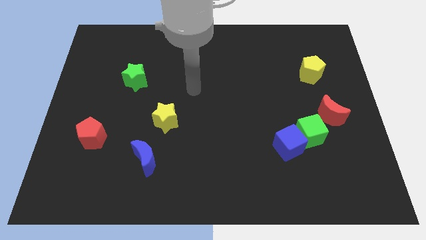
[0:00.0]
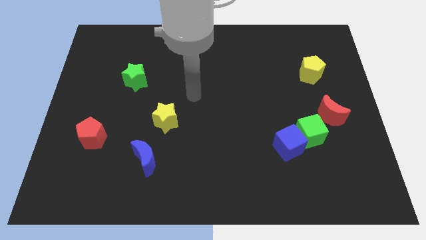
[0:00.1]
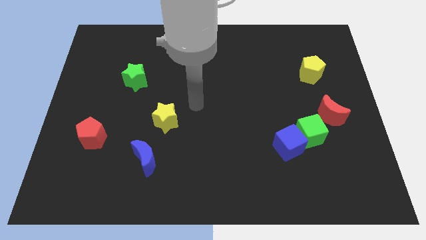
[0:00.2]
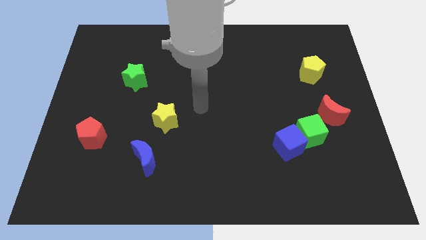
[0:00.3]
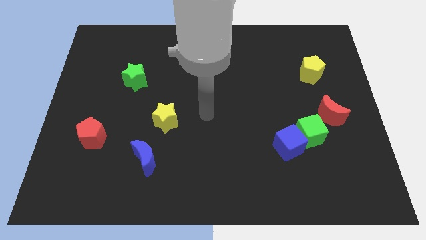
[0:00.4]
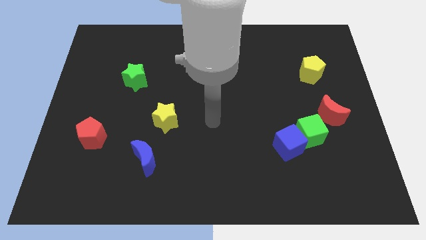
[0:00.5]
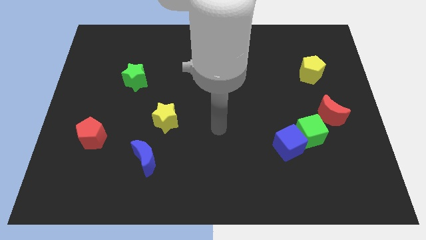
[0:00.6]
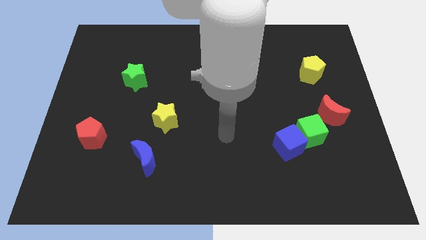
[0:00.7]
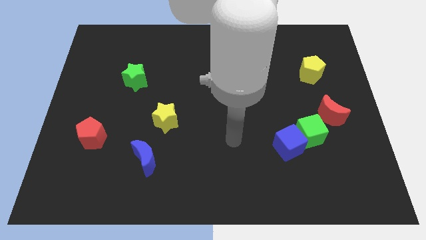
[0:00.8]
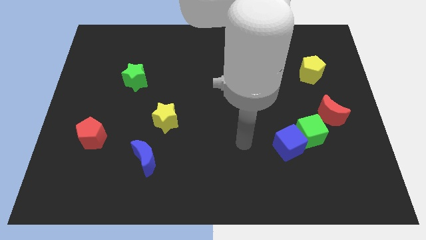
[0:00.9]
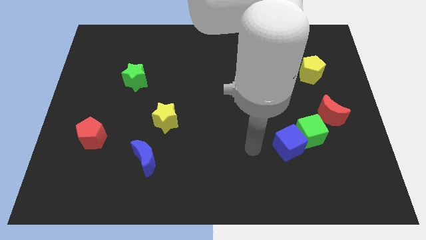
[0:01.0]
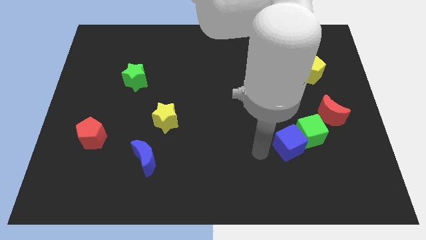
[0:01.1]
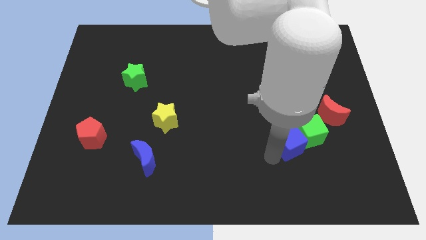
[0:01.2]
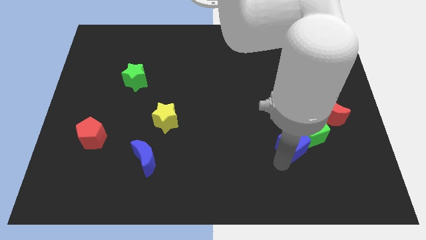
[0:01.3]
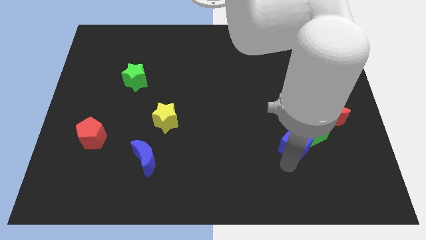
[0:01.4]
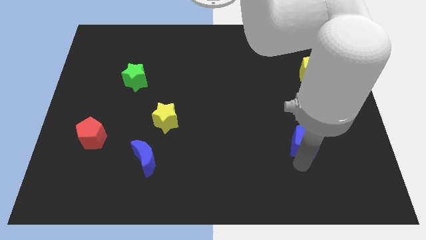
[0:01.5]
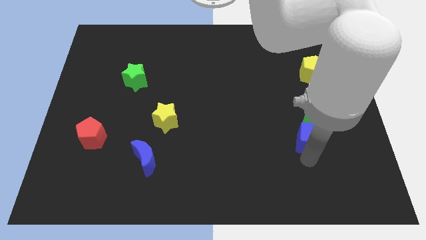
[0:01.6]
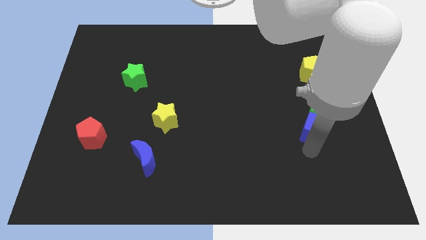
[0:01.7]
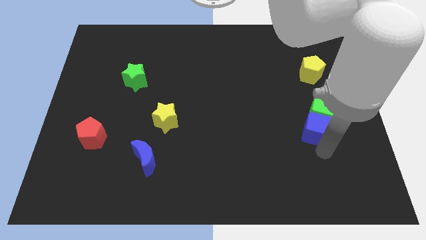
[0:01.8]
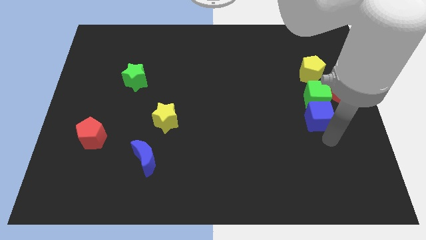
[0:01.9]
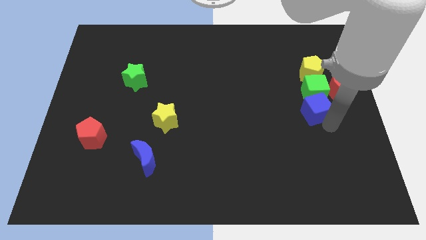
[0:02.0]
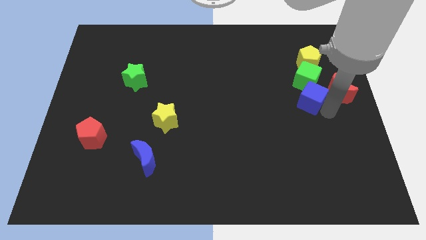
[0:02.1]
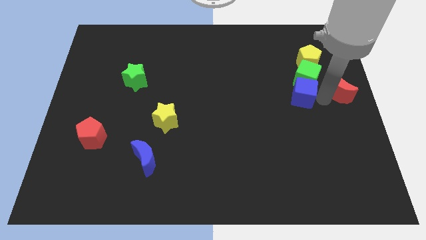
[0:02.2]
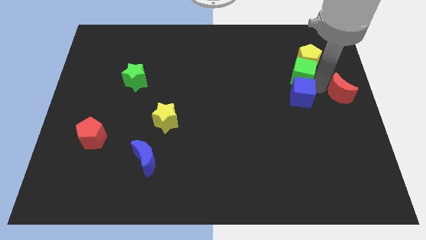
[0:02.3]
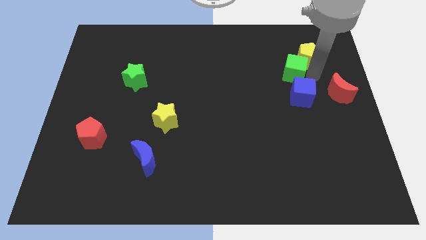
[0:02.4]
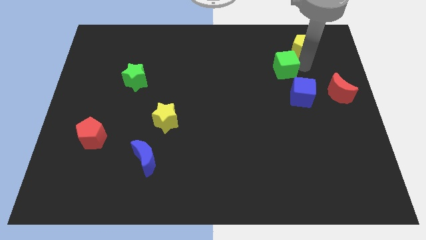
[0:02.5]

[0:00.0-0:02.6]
slightly slide the green cube diagonally up and left

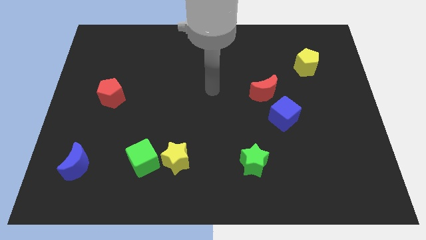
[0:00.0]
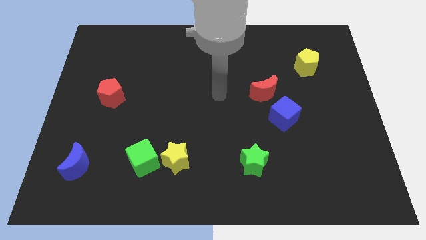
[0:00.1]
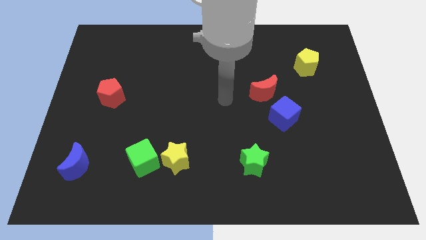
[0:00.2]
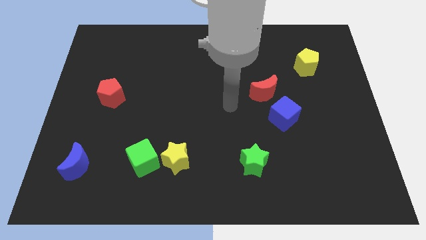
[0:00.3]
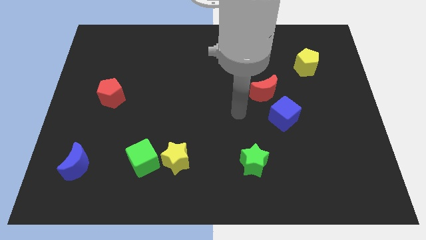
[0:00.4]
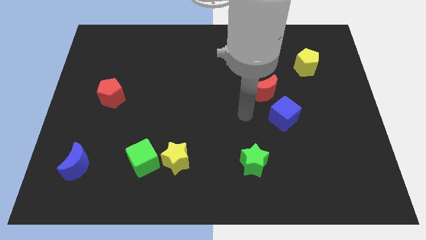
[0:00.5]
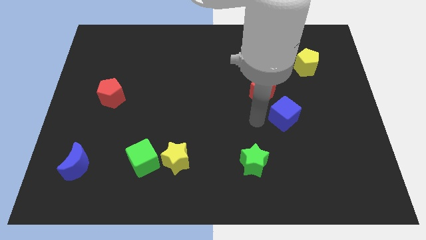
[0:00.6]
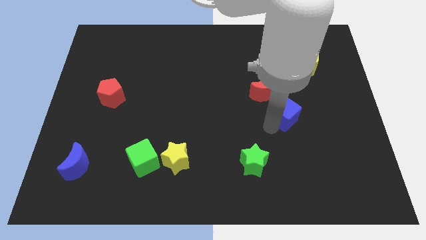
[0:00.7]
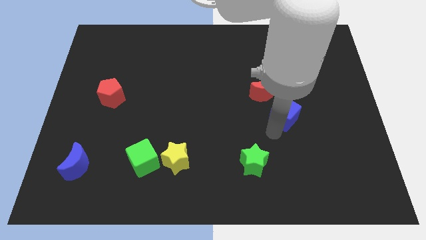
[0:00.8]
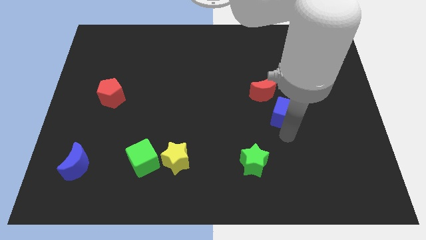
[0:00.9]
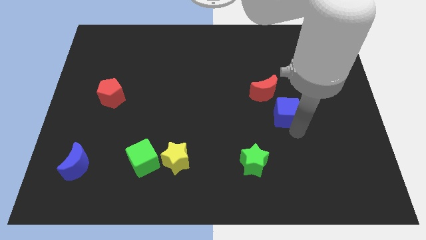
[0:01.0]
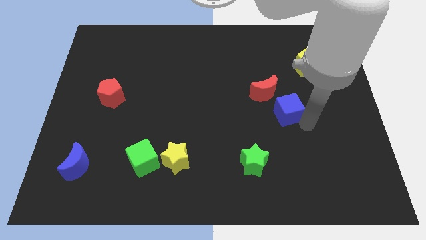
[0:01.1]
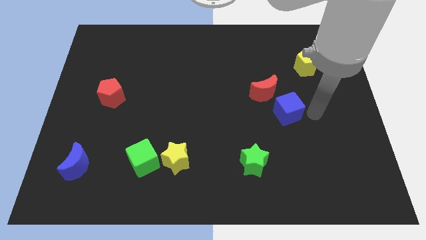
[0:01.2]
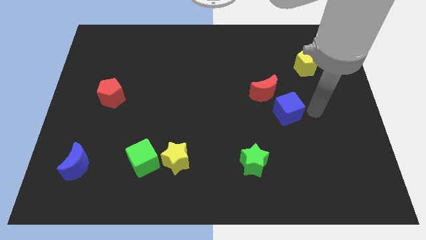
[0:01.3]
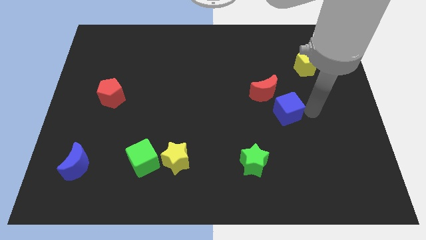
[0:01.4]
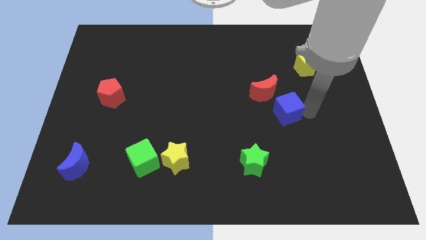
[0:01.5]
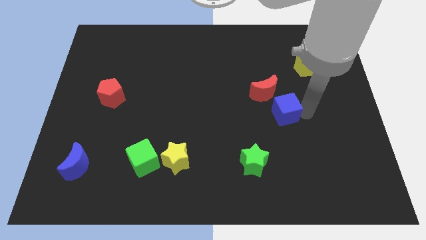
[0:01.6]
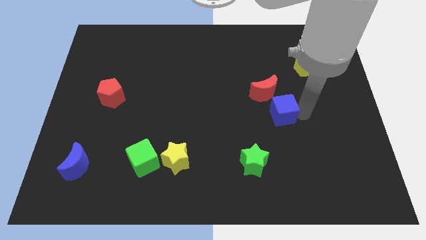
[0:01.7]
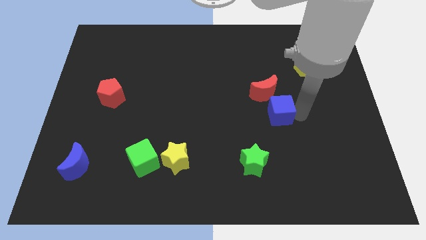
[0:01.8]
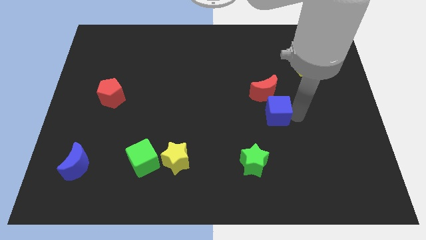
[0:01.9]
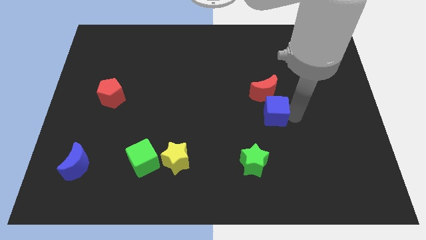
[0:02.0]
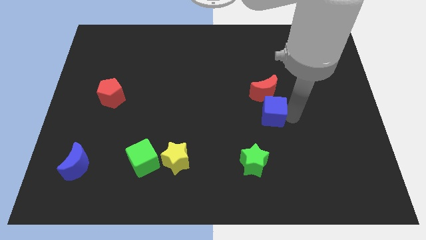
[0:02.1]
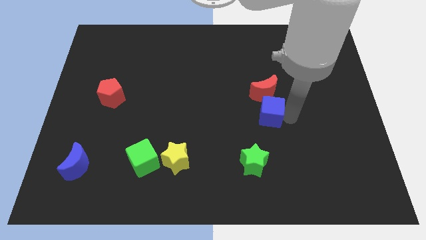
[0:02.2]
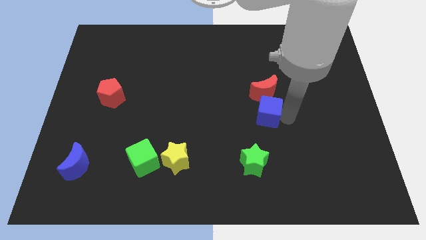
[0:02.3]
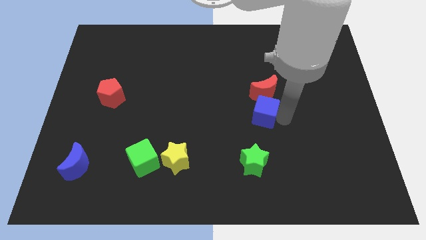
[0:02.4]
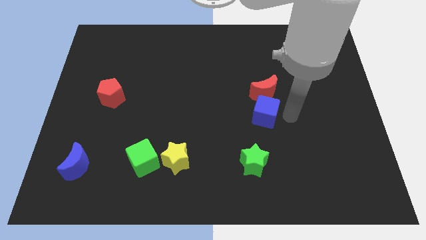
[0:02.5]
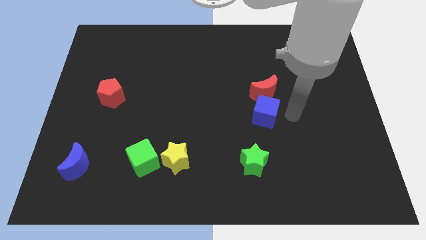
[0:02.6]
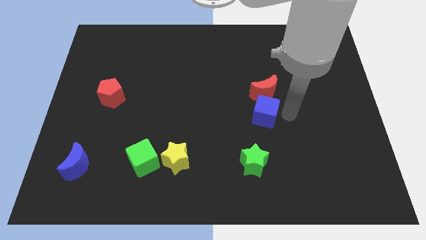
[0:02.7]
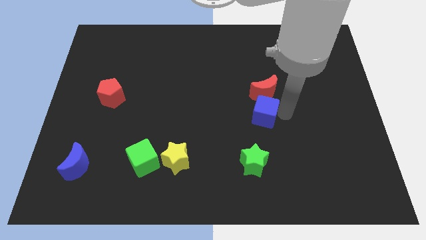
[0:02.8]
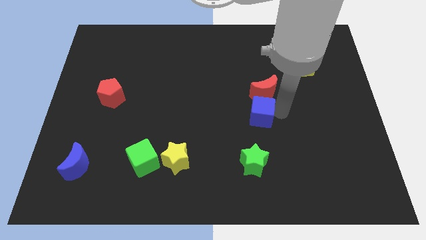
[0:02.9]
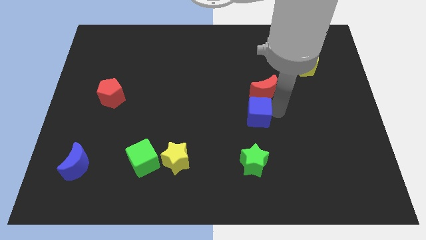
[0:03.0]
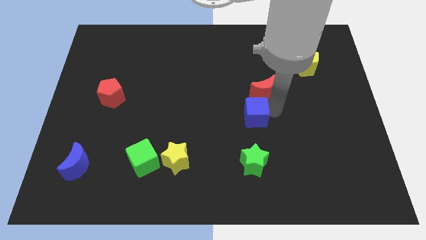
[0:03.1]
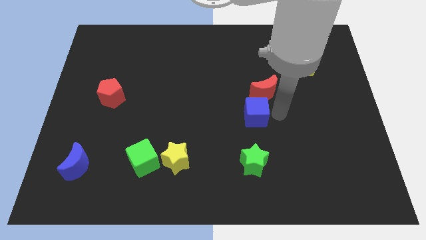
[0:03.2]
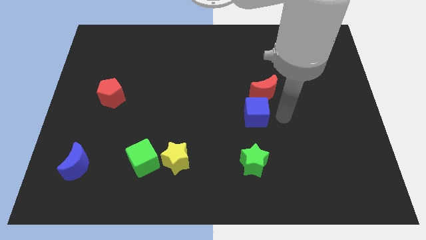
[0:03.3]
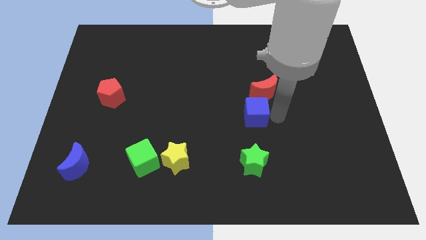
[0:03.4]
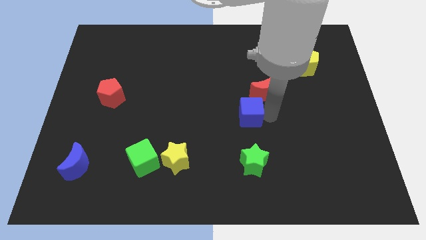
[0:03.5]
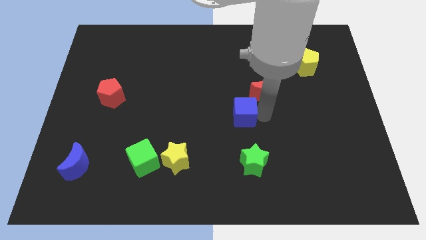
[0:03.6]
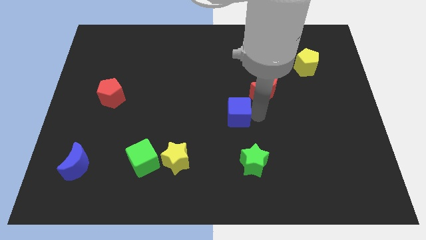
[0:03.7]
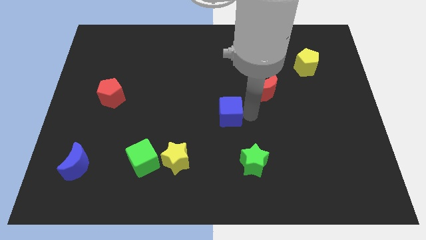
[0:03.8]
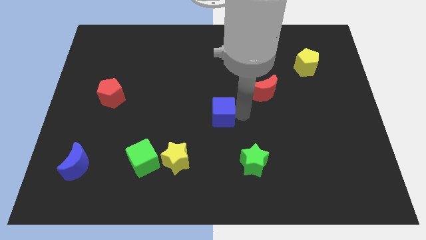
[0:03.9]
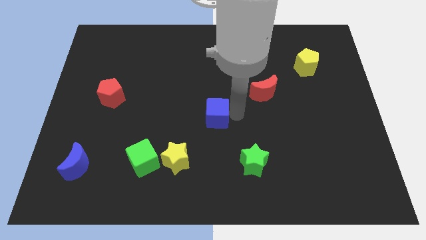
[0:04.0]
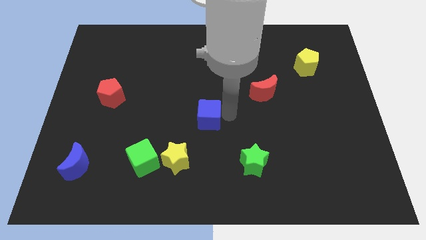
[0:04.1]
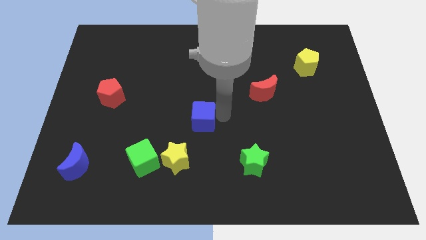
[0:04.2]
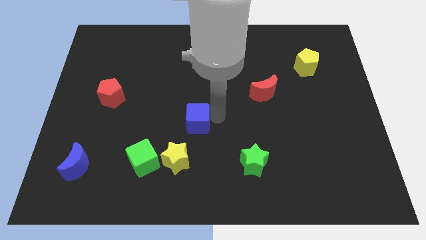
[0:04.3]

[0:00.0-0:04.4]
slide the blue cube left

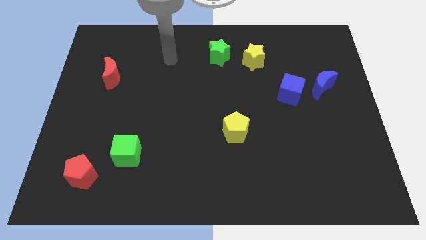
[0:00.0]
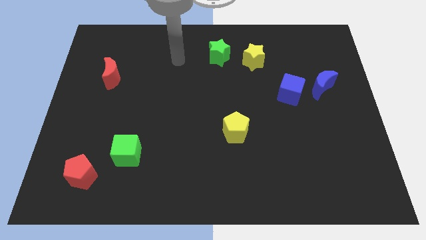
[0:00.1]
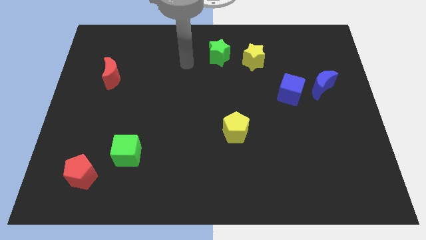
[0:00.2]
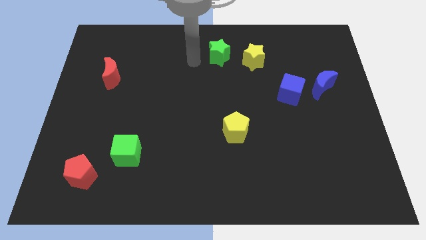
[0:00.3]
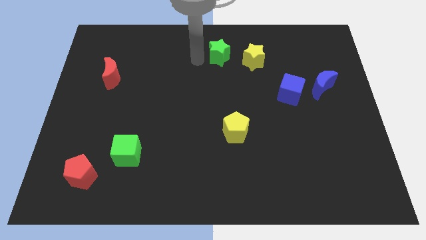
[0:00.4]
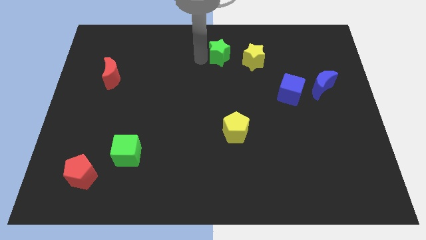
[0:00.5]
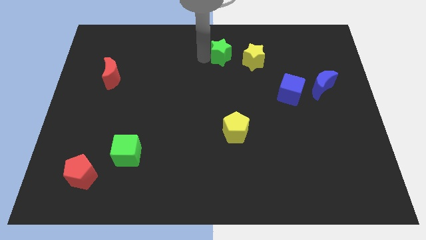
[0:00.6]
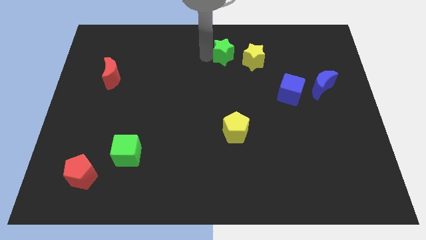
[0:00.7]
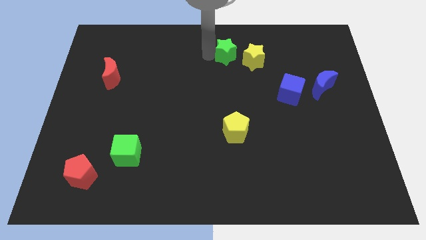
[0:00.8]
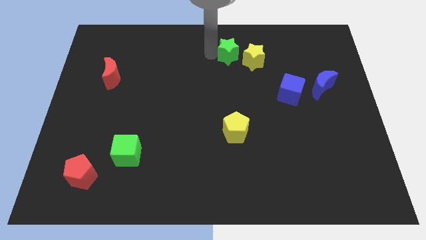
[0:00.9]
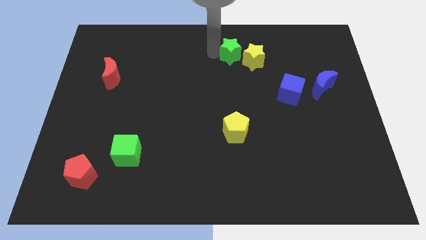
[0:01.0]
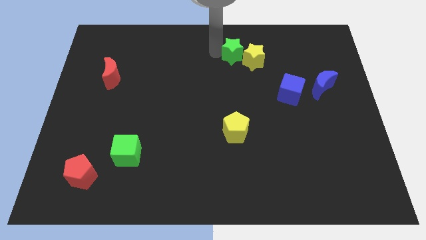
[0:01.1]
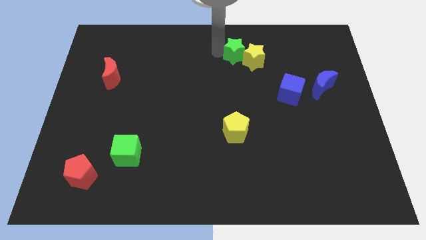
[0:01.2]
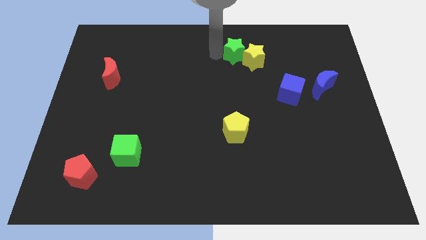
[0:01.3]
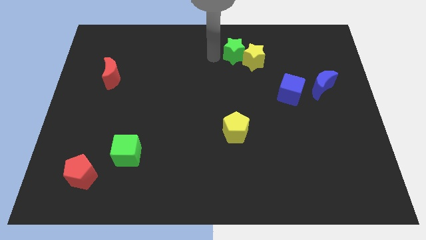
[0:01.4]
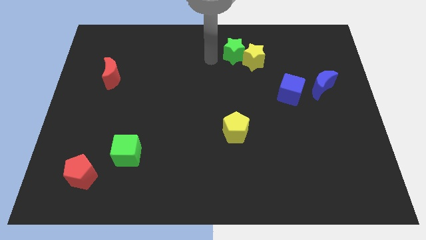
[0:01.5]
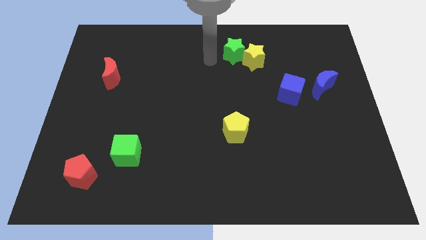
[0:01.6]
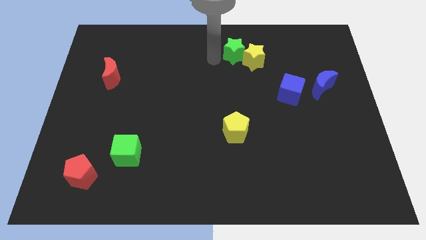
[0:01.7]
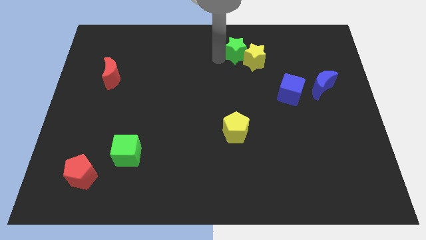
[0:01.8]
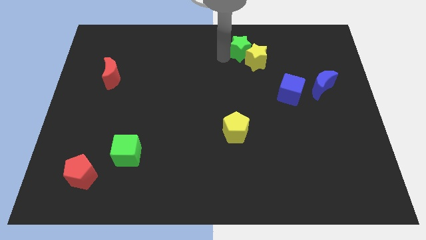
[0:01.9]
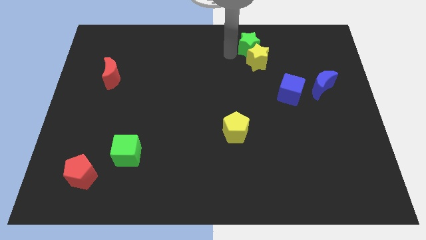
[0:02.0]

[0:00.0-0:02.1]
slide the green star to the right a bit
